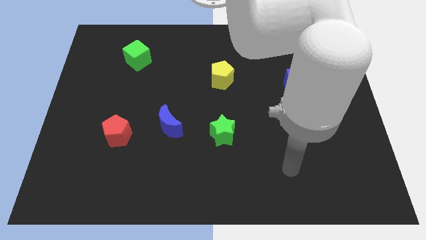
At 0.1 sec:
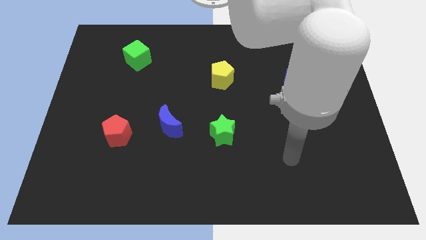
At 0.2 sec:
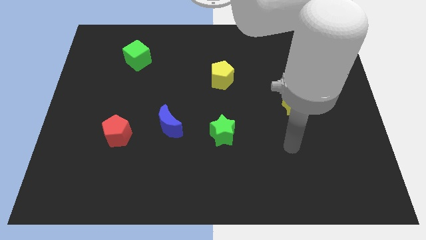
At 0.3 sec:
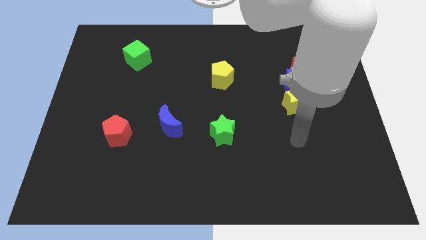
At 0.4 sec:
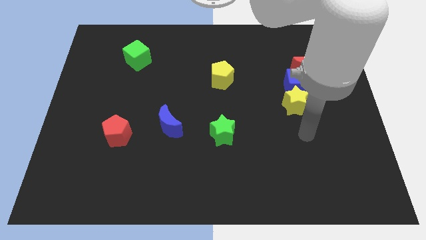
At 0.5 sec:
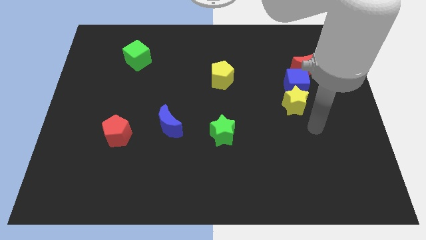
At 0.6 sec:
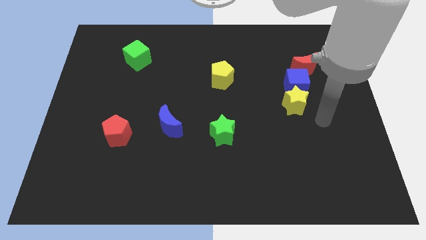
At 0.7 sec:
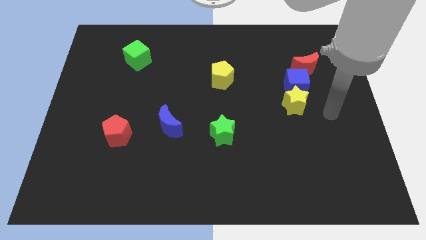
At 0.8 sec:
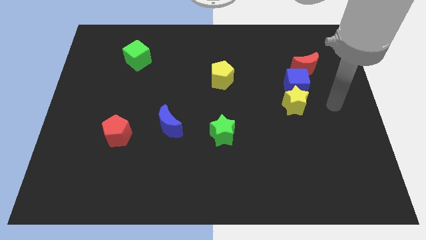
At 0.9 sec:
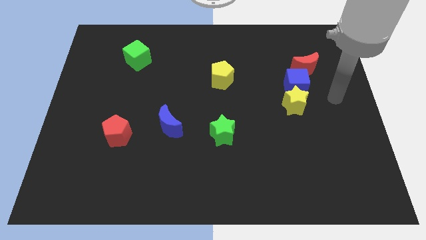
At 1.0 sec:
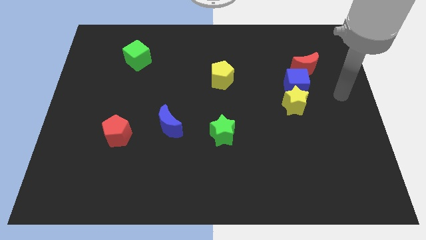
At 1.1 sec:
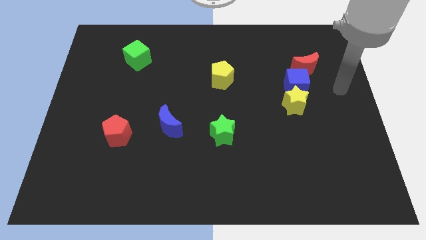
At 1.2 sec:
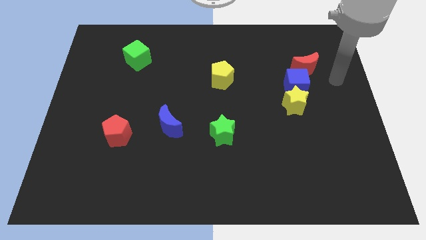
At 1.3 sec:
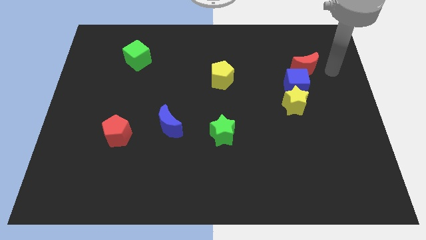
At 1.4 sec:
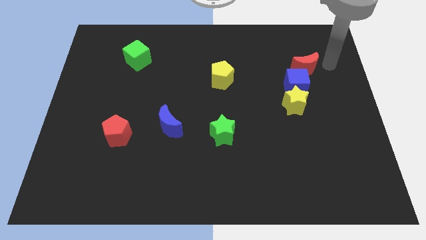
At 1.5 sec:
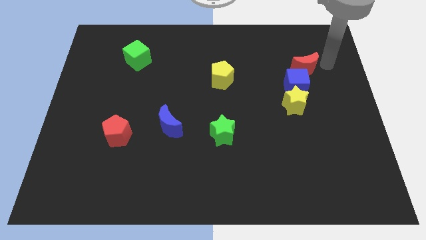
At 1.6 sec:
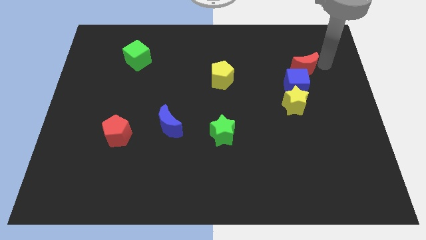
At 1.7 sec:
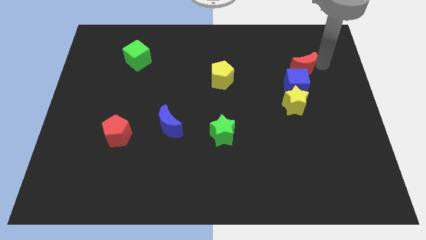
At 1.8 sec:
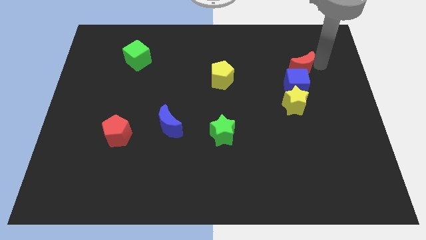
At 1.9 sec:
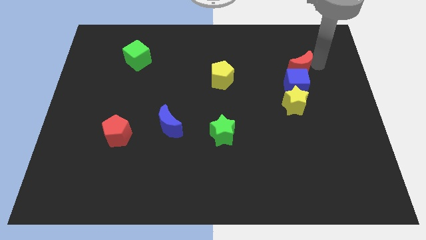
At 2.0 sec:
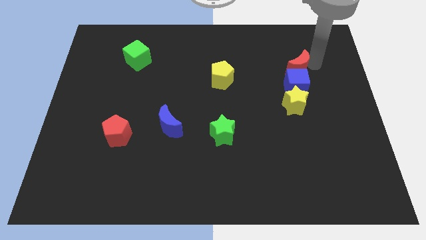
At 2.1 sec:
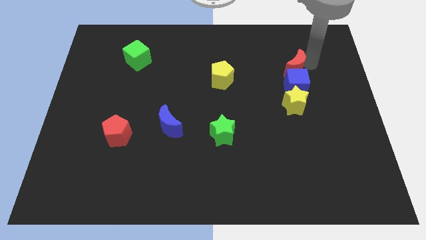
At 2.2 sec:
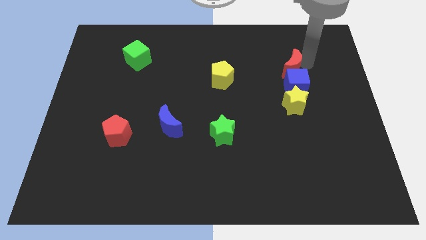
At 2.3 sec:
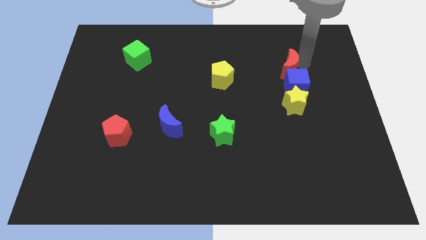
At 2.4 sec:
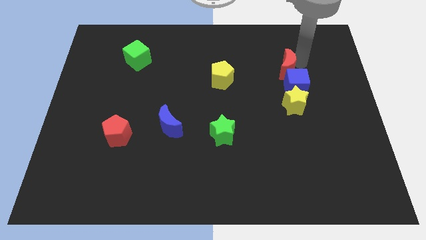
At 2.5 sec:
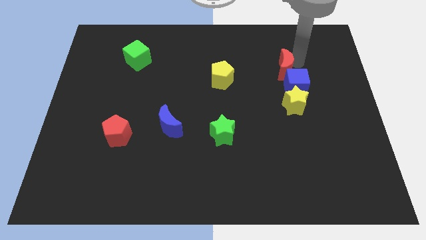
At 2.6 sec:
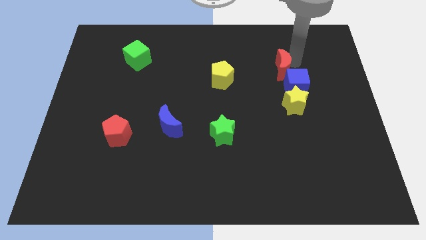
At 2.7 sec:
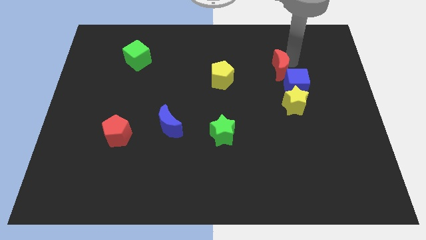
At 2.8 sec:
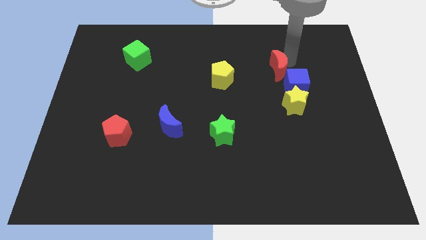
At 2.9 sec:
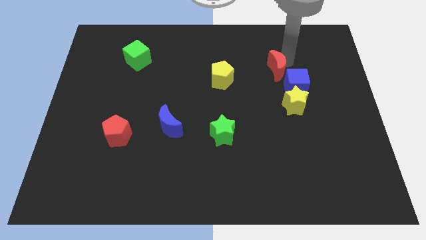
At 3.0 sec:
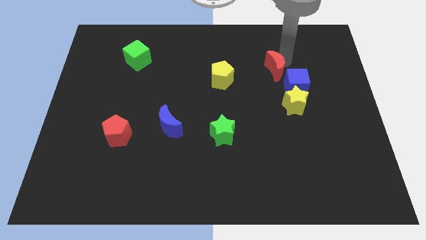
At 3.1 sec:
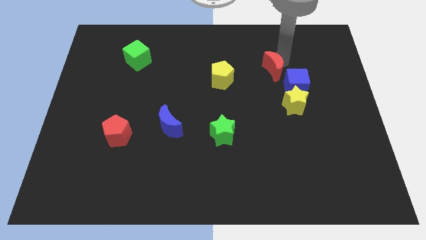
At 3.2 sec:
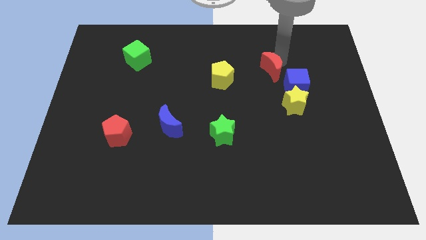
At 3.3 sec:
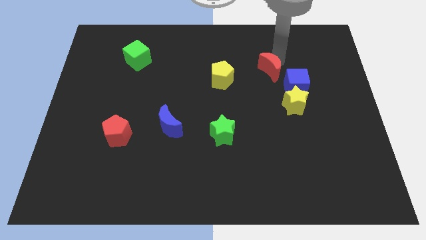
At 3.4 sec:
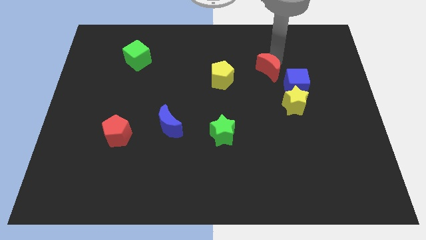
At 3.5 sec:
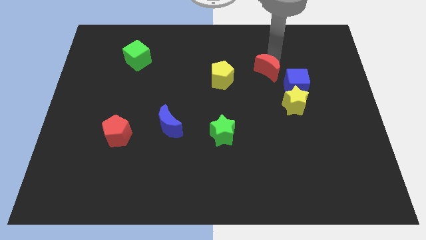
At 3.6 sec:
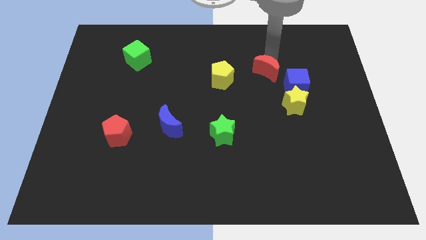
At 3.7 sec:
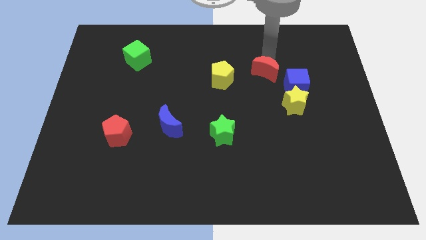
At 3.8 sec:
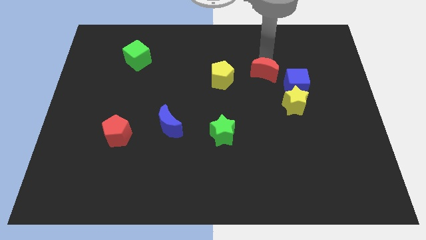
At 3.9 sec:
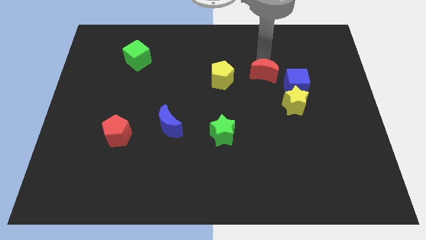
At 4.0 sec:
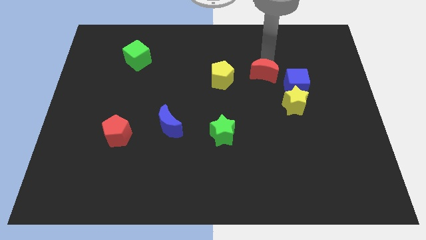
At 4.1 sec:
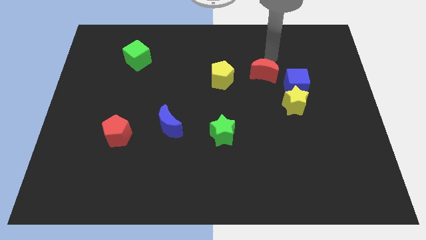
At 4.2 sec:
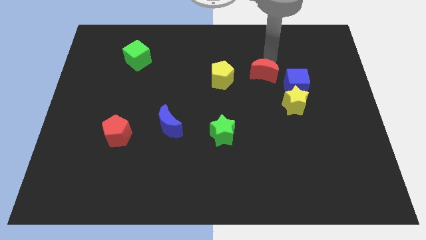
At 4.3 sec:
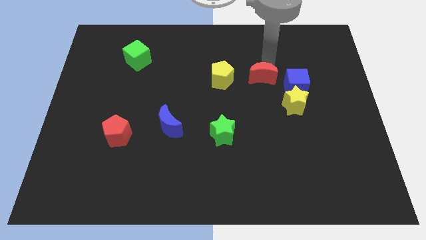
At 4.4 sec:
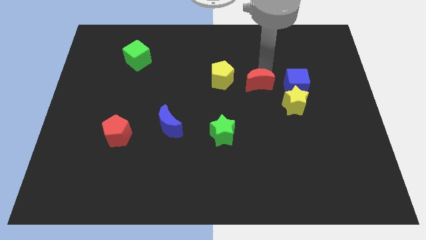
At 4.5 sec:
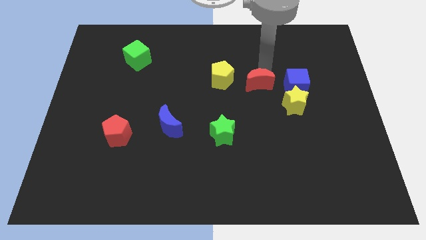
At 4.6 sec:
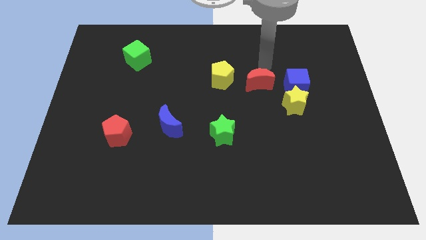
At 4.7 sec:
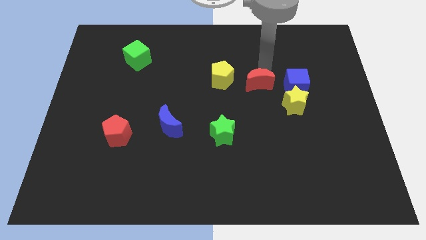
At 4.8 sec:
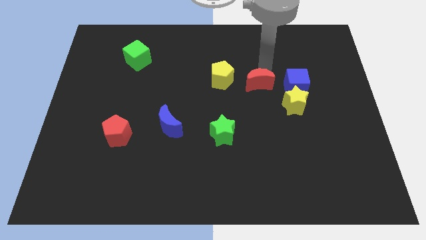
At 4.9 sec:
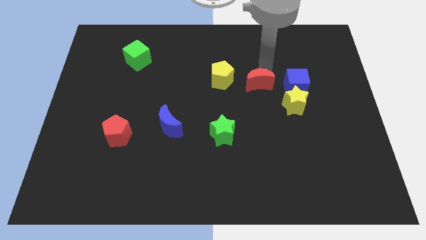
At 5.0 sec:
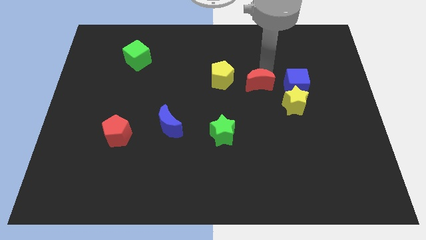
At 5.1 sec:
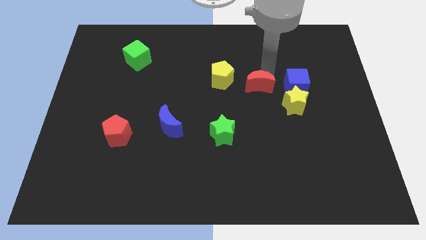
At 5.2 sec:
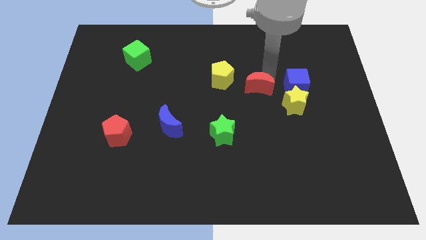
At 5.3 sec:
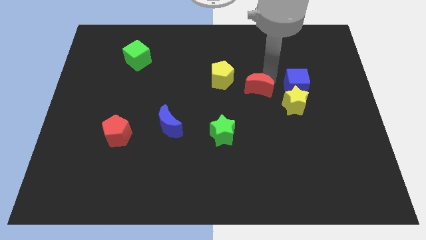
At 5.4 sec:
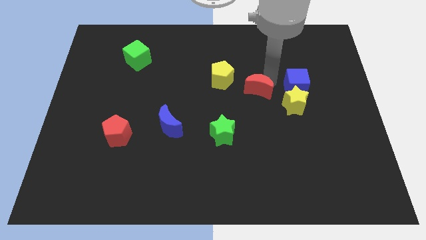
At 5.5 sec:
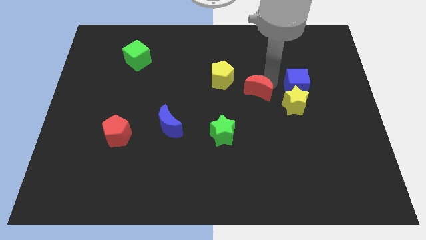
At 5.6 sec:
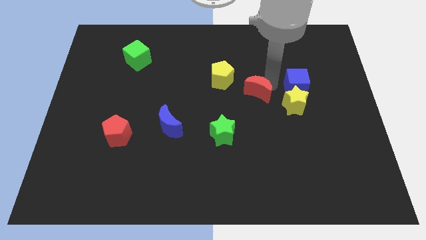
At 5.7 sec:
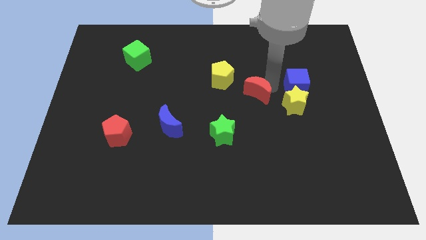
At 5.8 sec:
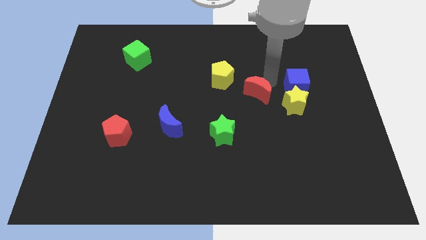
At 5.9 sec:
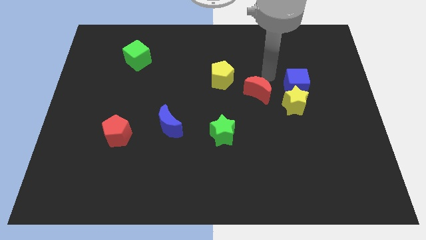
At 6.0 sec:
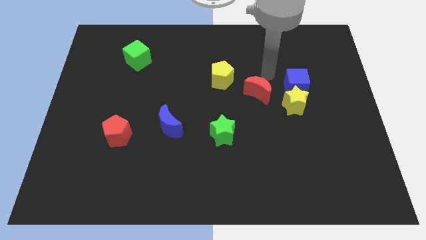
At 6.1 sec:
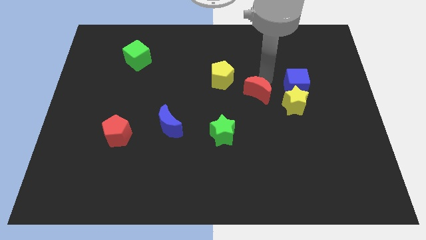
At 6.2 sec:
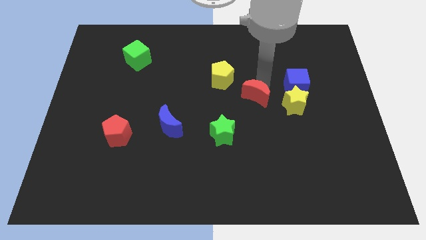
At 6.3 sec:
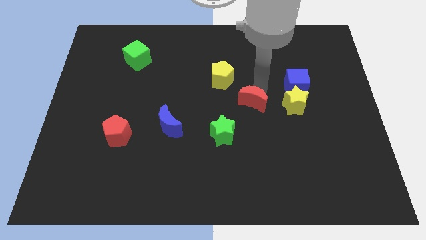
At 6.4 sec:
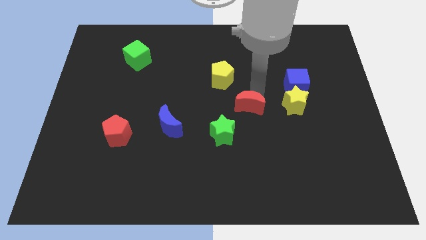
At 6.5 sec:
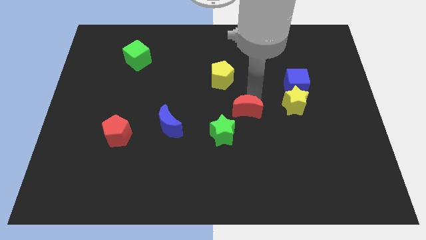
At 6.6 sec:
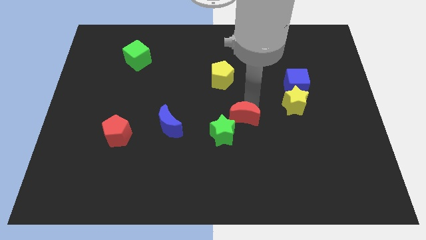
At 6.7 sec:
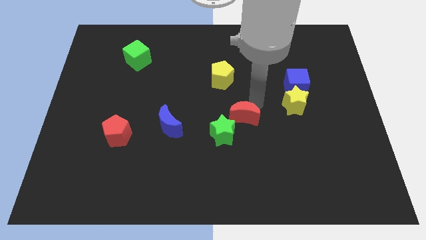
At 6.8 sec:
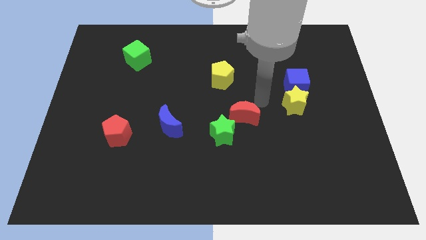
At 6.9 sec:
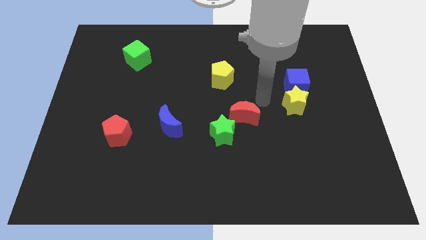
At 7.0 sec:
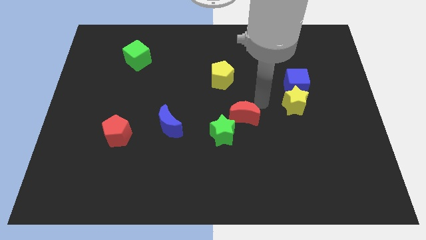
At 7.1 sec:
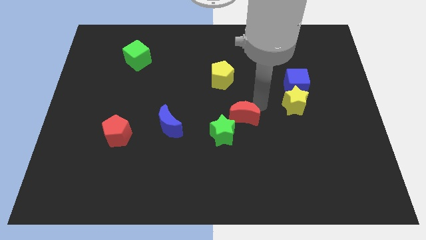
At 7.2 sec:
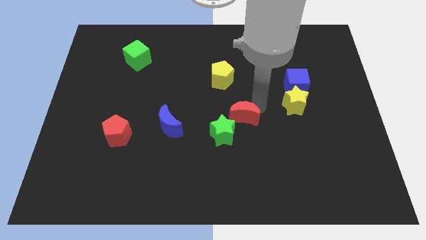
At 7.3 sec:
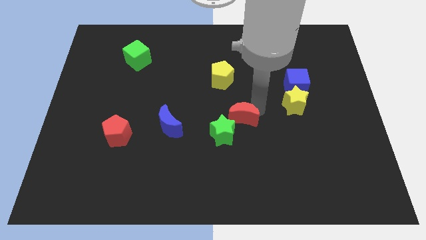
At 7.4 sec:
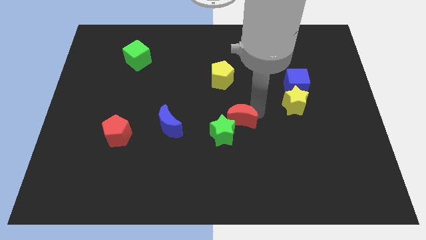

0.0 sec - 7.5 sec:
push the red moon to the green star
